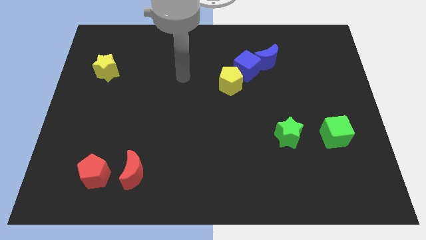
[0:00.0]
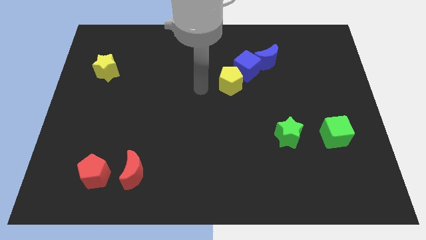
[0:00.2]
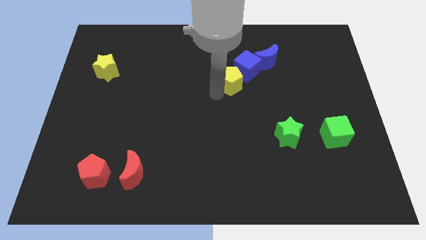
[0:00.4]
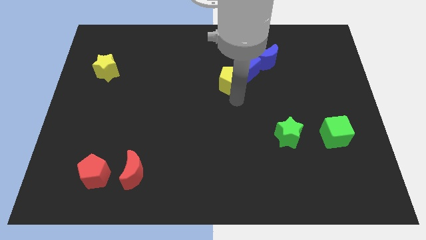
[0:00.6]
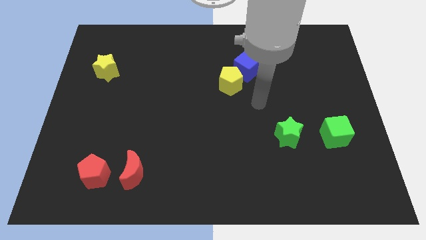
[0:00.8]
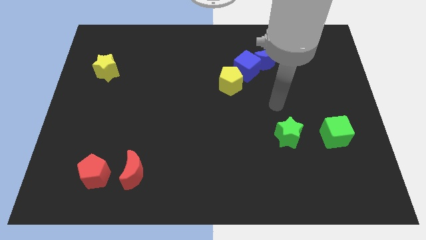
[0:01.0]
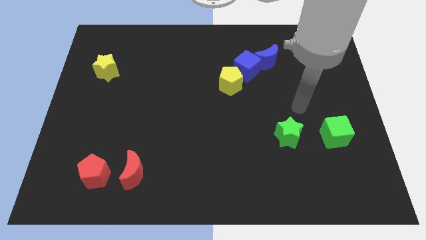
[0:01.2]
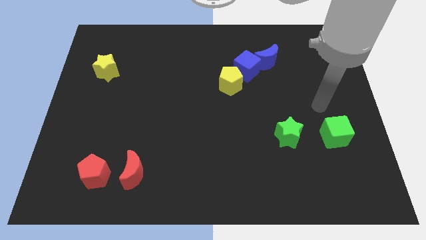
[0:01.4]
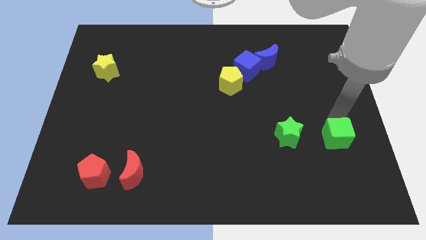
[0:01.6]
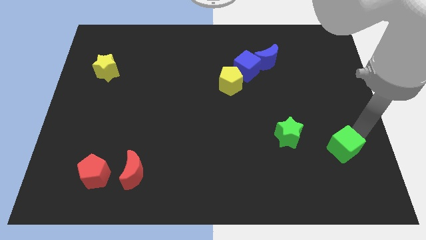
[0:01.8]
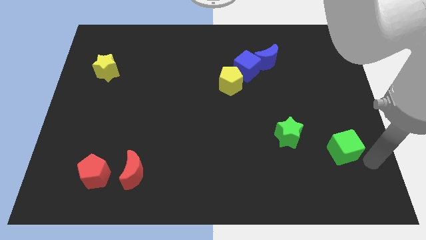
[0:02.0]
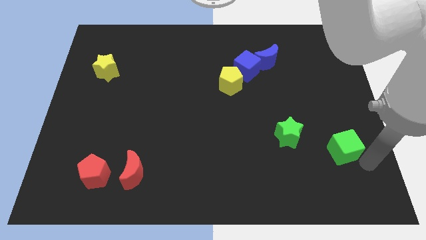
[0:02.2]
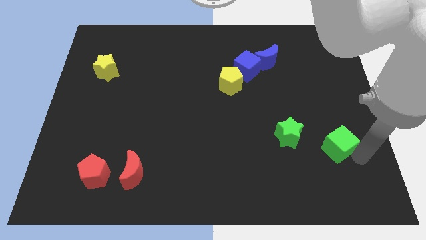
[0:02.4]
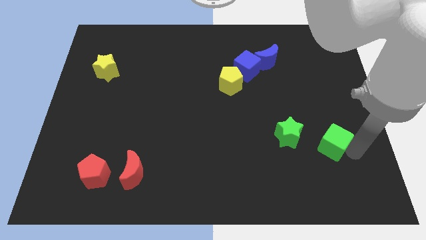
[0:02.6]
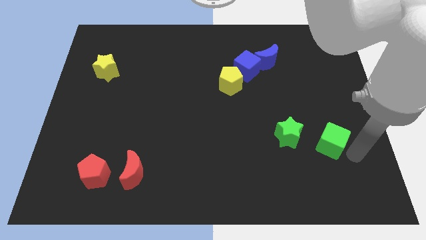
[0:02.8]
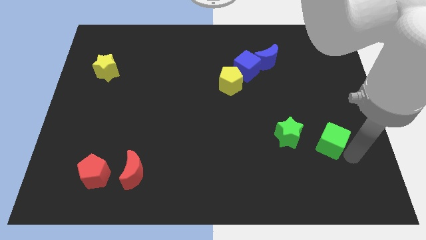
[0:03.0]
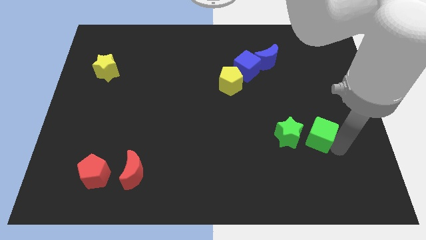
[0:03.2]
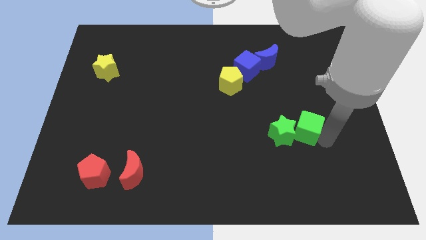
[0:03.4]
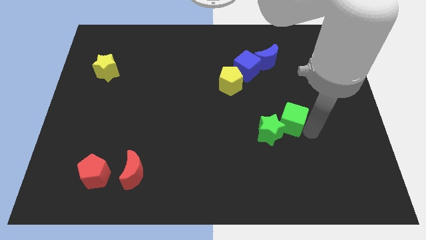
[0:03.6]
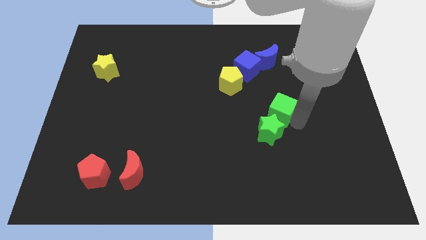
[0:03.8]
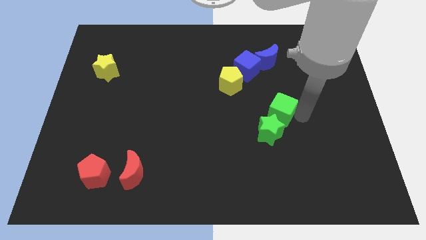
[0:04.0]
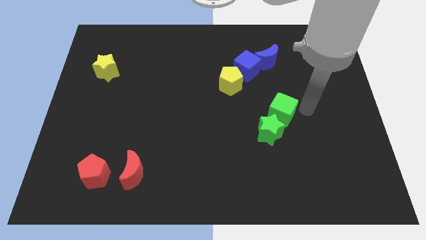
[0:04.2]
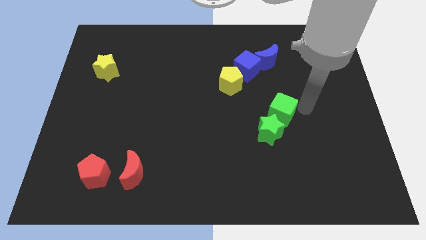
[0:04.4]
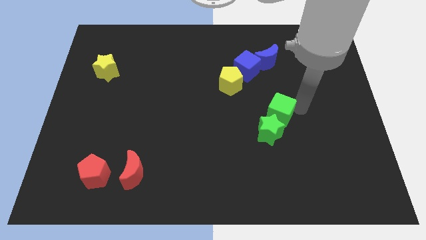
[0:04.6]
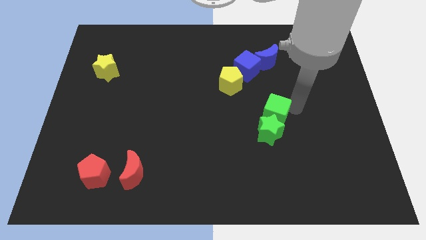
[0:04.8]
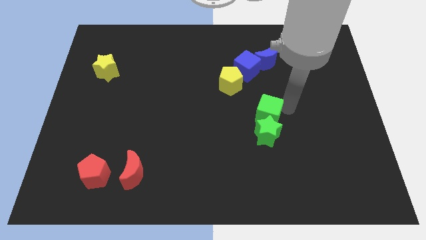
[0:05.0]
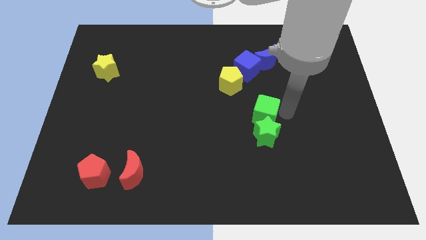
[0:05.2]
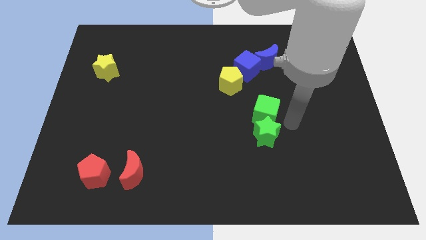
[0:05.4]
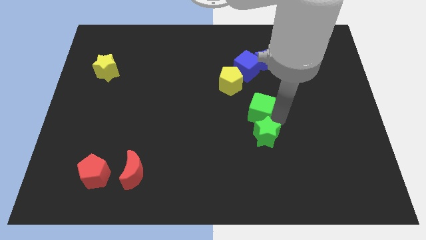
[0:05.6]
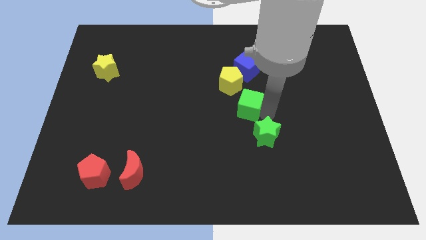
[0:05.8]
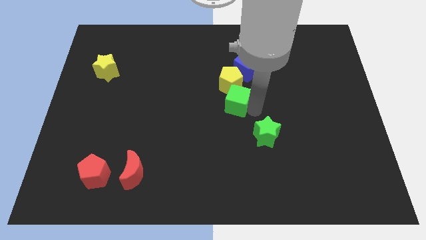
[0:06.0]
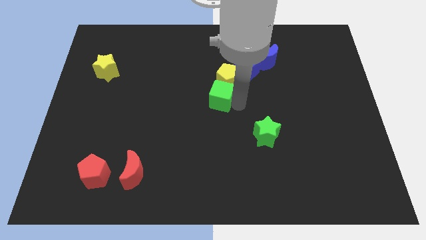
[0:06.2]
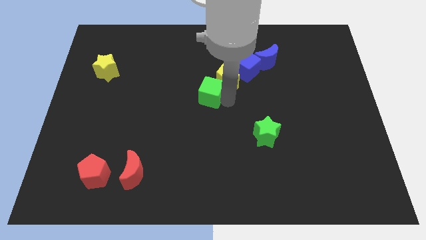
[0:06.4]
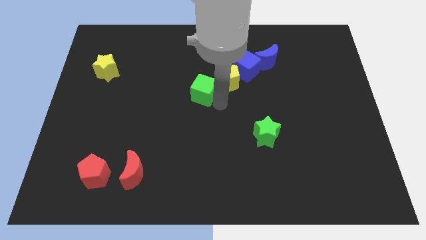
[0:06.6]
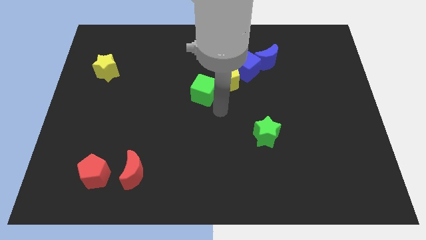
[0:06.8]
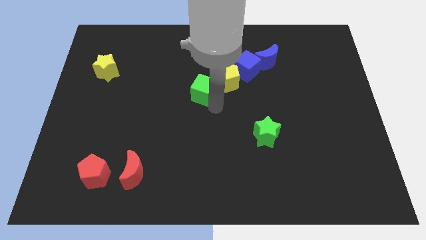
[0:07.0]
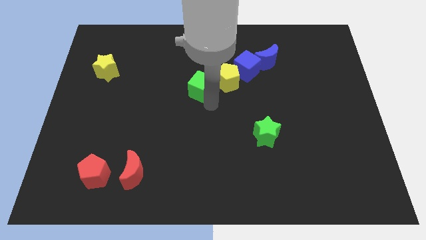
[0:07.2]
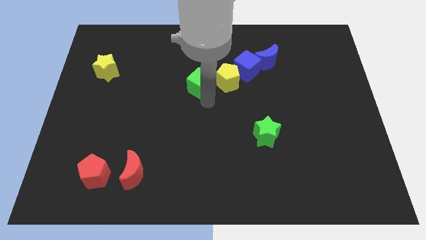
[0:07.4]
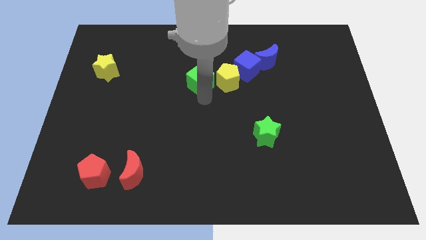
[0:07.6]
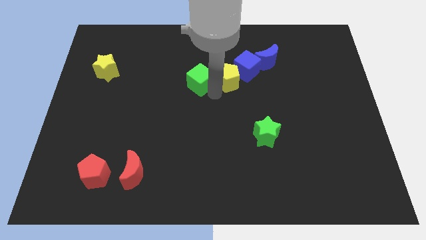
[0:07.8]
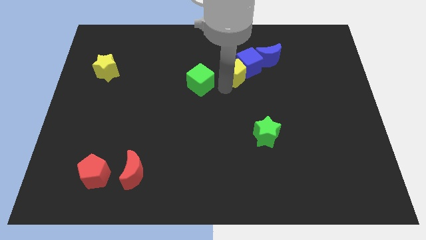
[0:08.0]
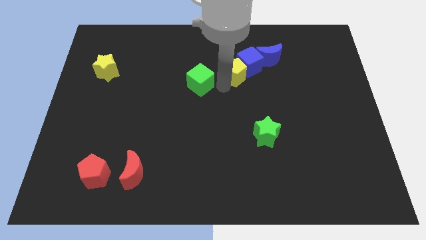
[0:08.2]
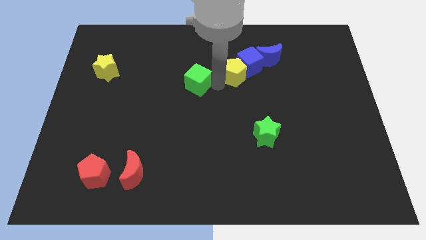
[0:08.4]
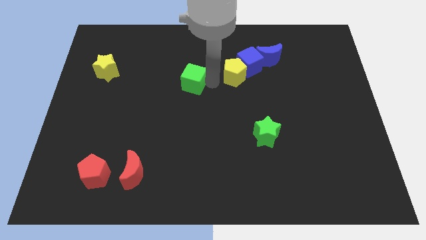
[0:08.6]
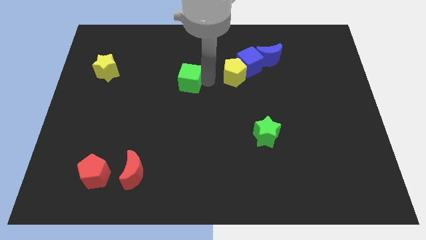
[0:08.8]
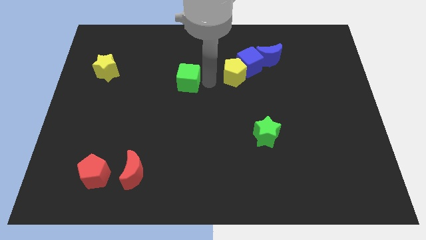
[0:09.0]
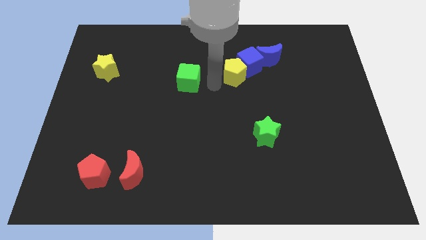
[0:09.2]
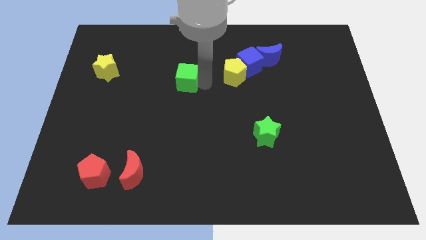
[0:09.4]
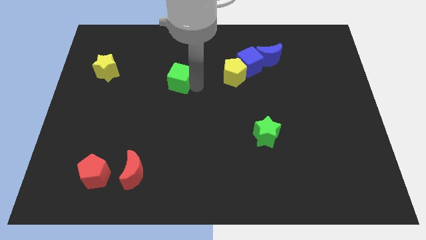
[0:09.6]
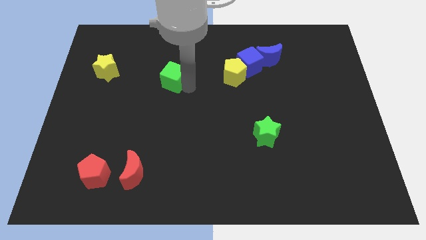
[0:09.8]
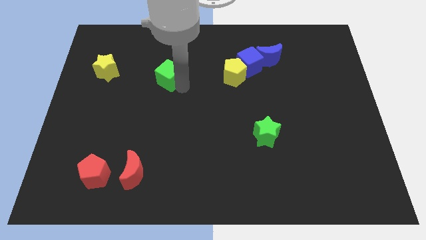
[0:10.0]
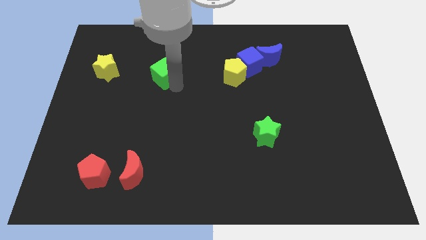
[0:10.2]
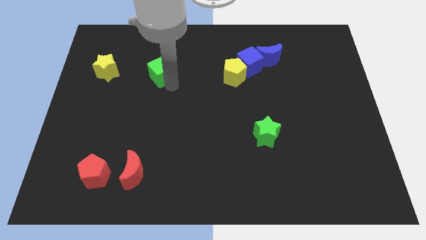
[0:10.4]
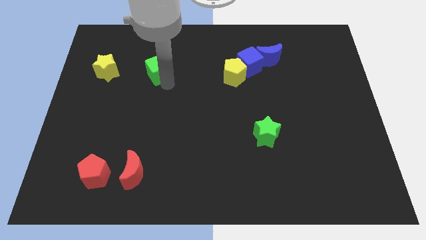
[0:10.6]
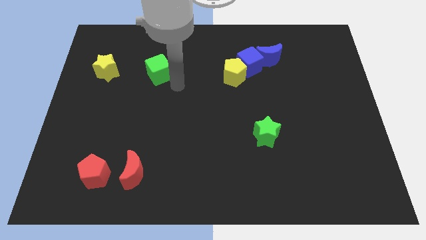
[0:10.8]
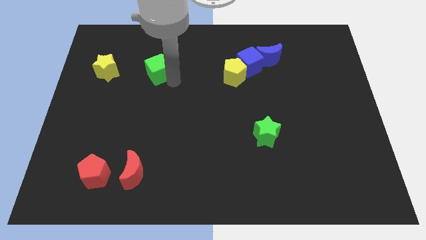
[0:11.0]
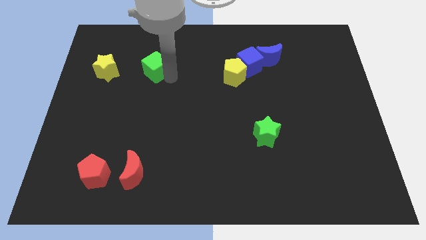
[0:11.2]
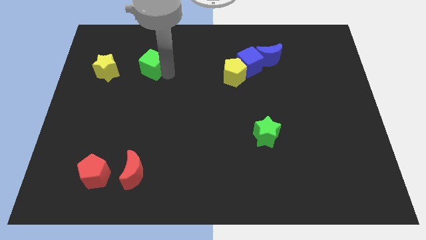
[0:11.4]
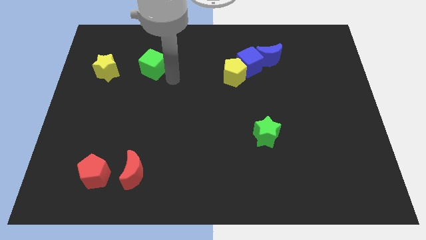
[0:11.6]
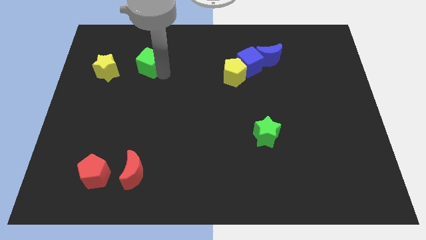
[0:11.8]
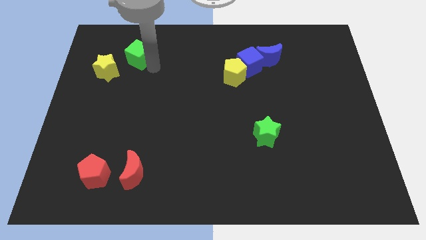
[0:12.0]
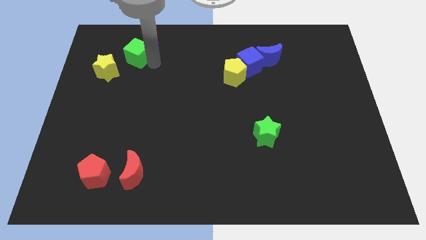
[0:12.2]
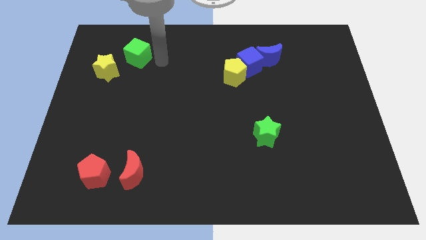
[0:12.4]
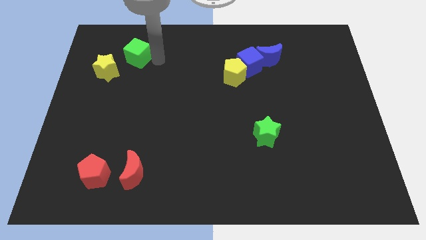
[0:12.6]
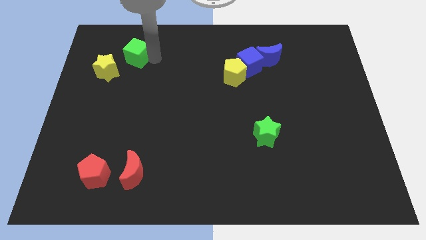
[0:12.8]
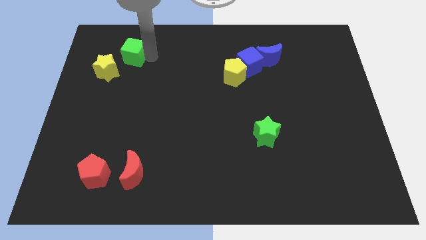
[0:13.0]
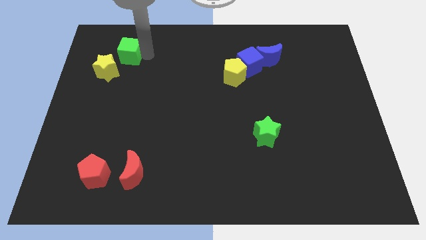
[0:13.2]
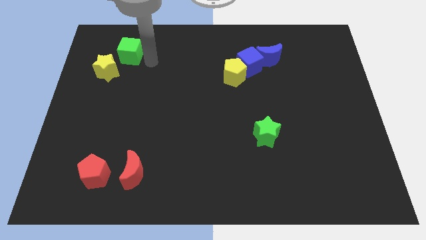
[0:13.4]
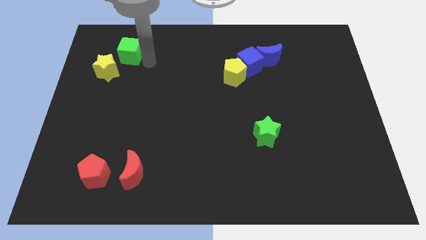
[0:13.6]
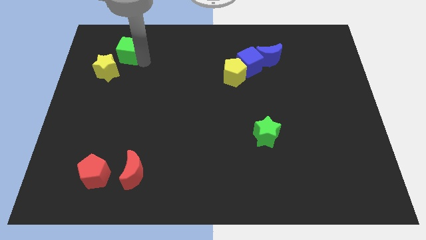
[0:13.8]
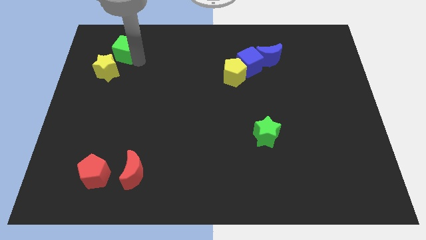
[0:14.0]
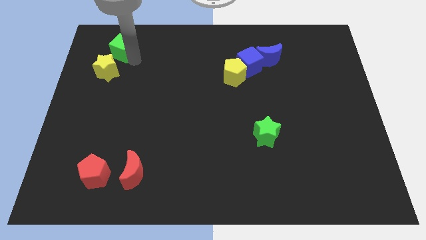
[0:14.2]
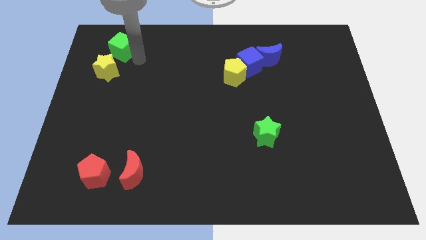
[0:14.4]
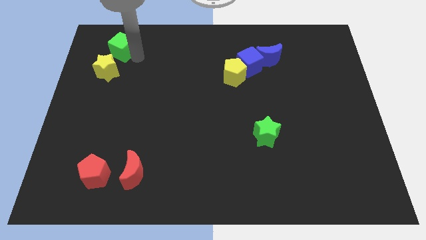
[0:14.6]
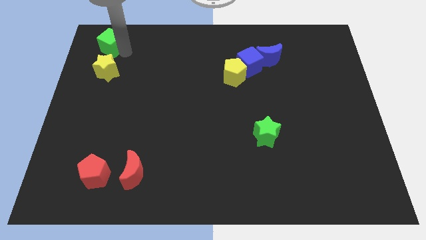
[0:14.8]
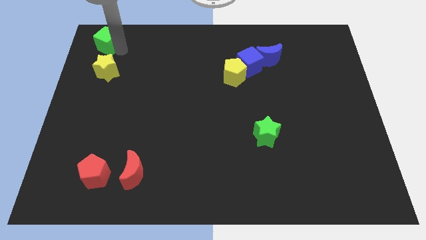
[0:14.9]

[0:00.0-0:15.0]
move the green cube to the top left
